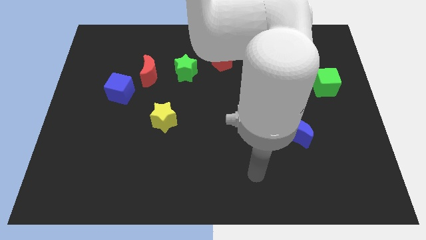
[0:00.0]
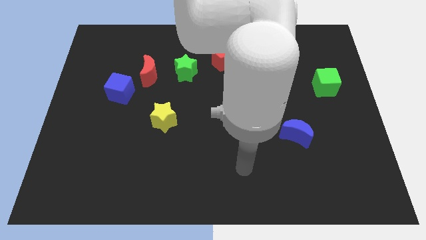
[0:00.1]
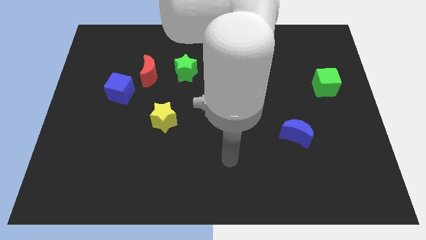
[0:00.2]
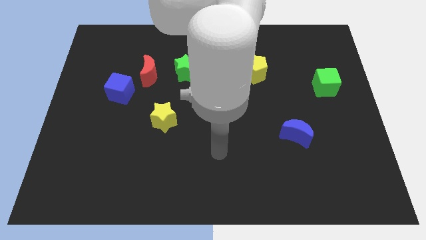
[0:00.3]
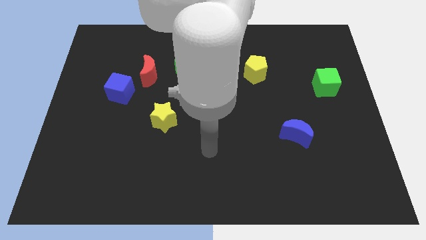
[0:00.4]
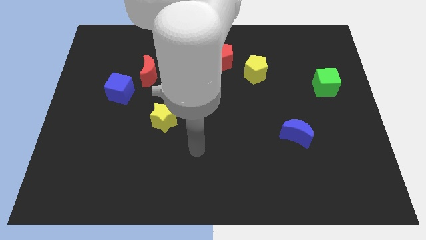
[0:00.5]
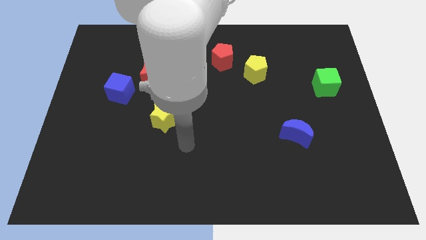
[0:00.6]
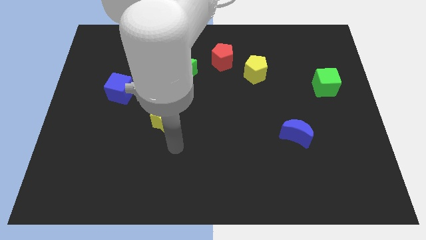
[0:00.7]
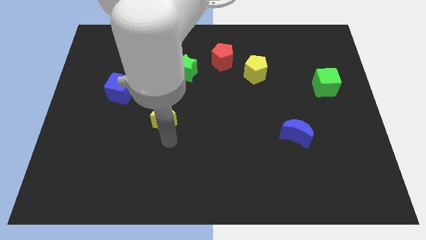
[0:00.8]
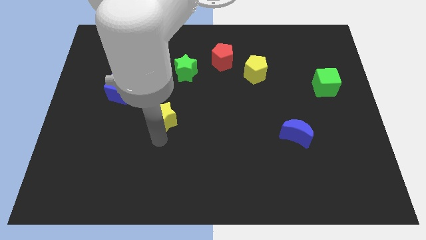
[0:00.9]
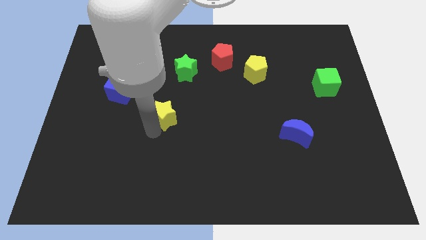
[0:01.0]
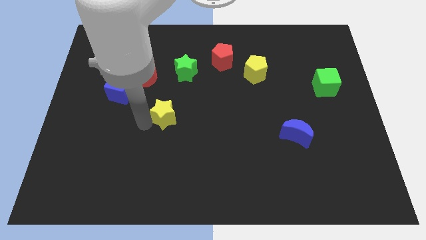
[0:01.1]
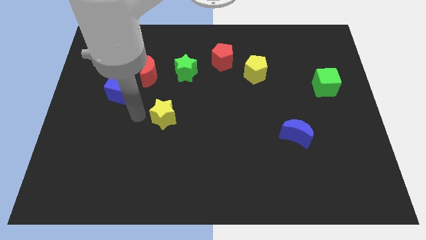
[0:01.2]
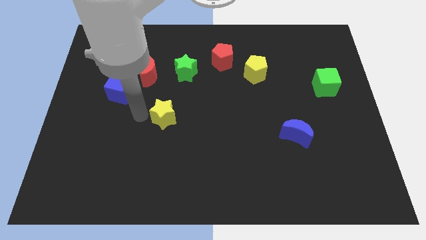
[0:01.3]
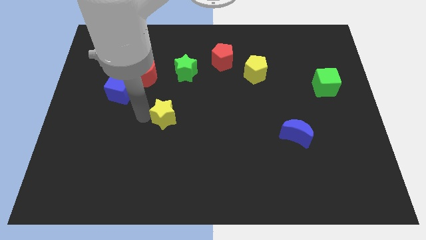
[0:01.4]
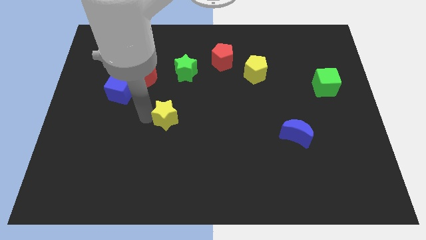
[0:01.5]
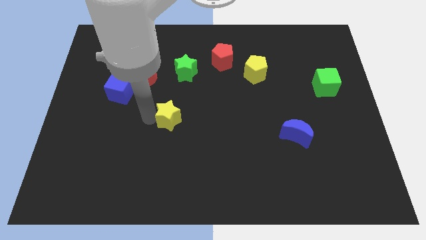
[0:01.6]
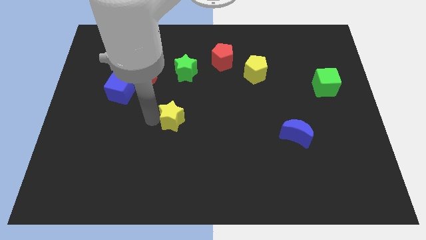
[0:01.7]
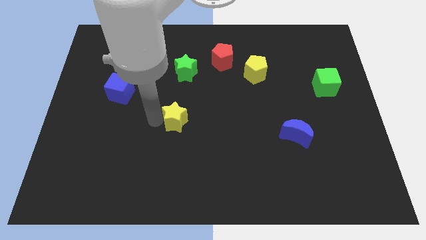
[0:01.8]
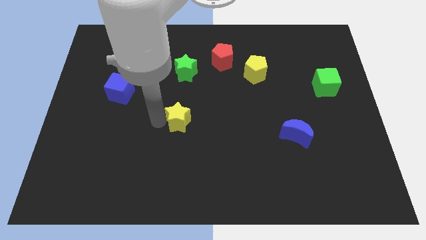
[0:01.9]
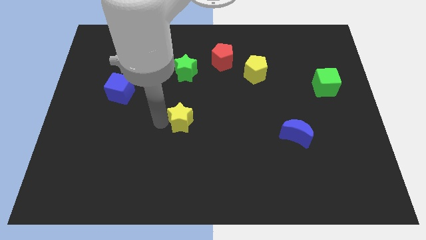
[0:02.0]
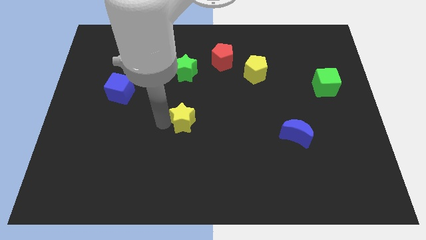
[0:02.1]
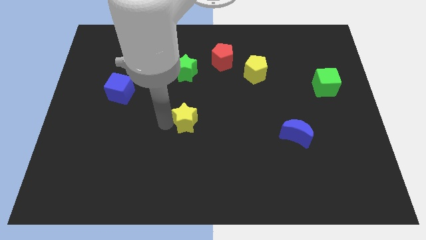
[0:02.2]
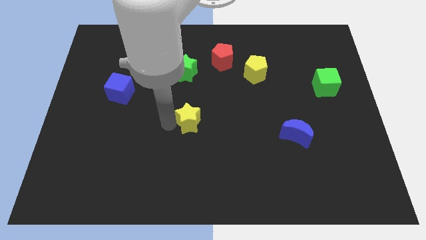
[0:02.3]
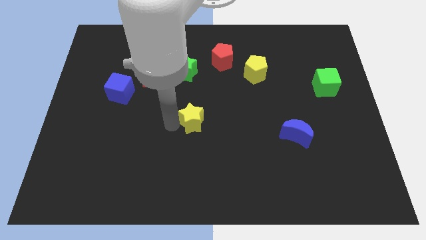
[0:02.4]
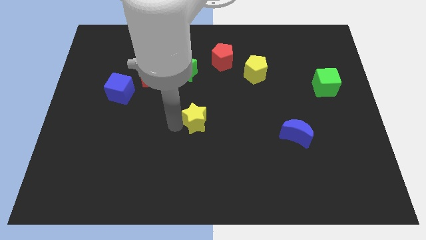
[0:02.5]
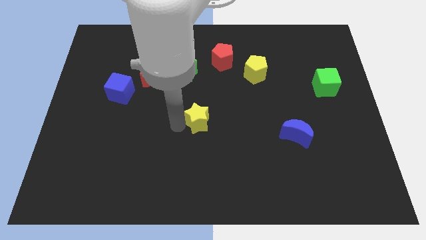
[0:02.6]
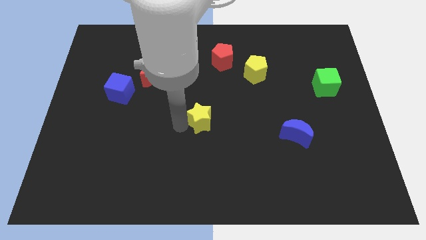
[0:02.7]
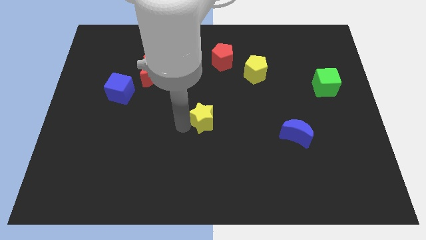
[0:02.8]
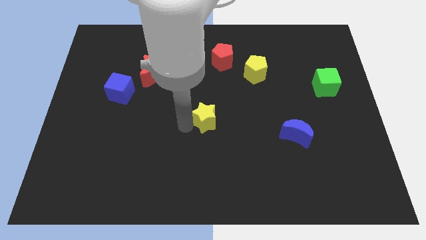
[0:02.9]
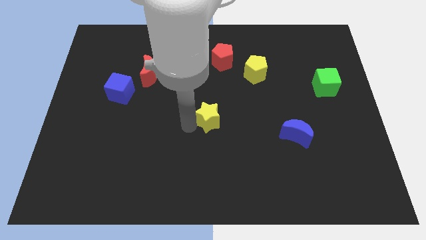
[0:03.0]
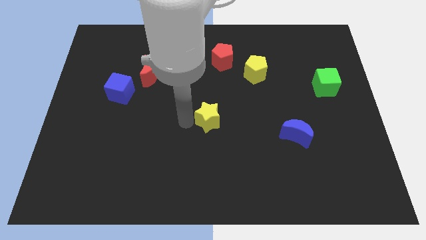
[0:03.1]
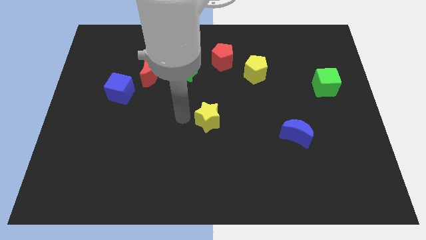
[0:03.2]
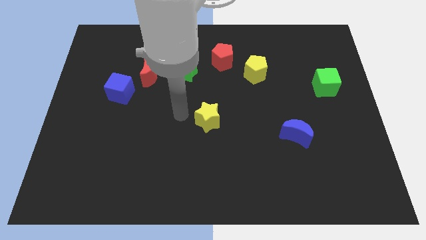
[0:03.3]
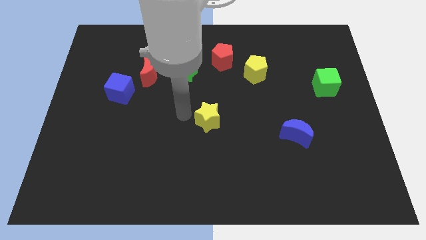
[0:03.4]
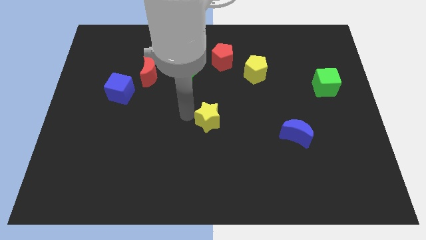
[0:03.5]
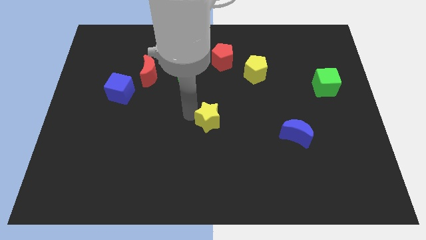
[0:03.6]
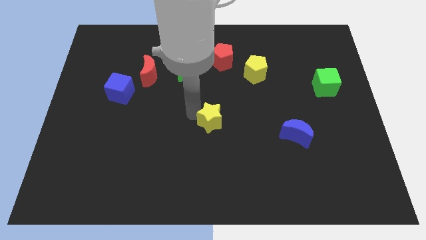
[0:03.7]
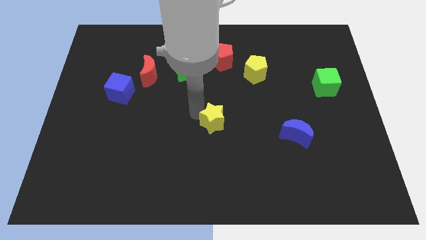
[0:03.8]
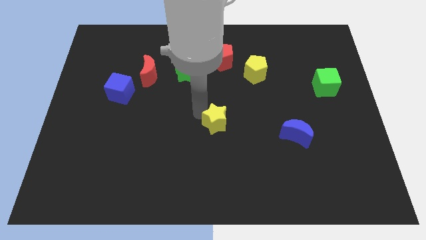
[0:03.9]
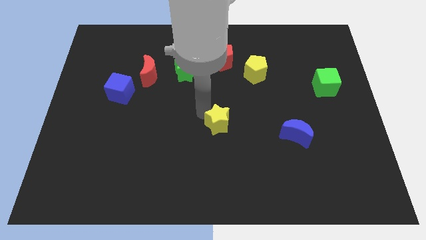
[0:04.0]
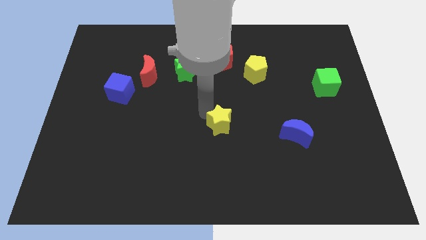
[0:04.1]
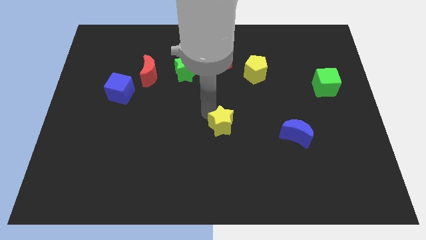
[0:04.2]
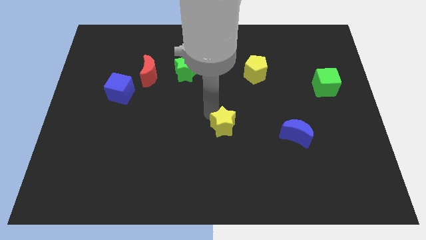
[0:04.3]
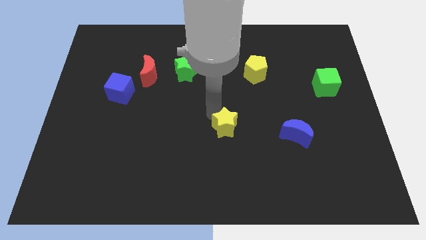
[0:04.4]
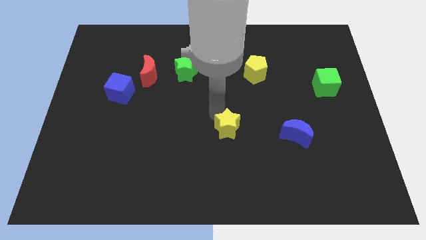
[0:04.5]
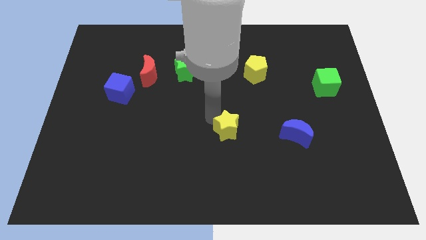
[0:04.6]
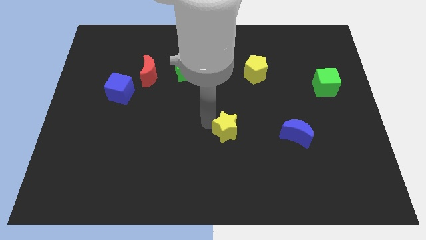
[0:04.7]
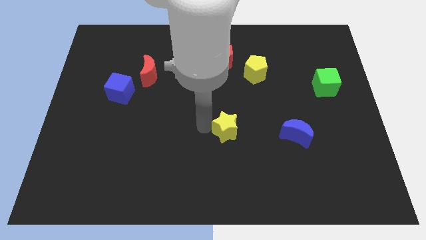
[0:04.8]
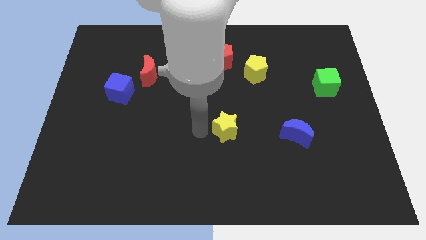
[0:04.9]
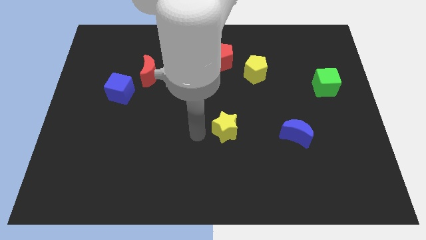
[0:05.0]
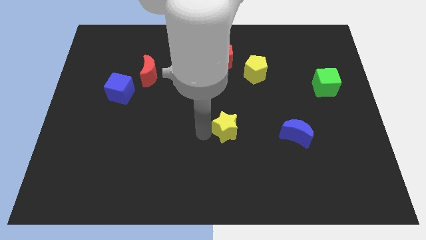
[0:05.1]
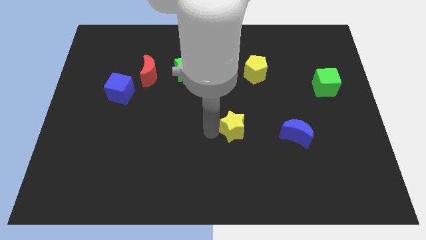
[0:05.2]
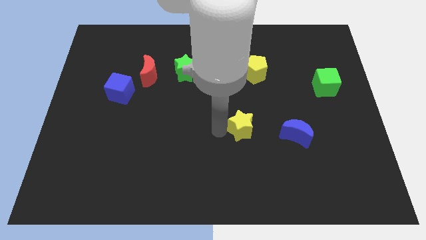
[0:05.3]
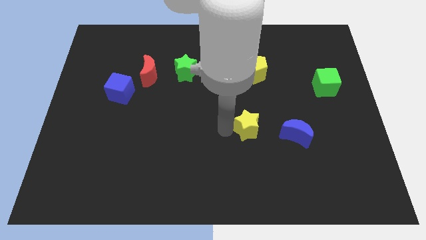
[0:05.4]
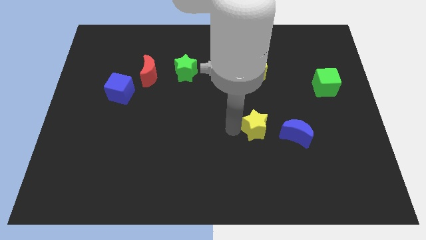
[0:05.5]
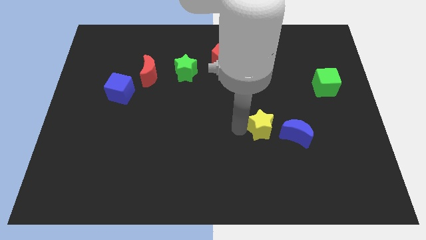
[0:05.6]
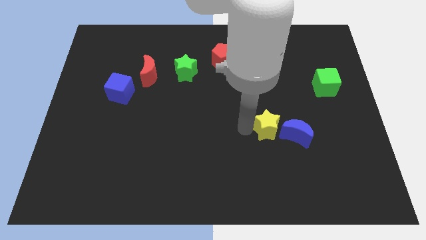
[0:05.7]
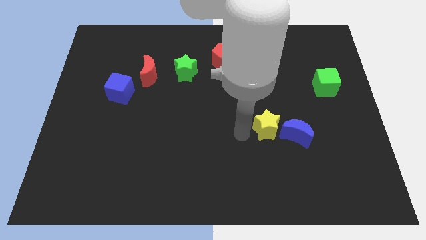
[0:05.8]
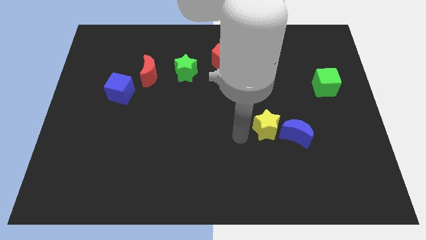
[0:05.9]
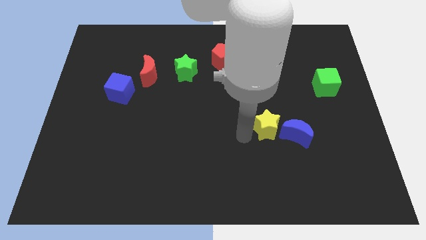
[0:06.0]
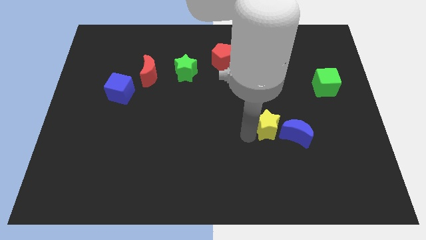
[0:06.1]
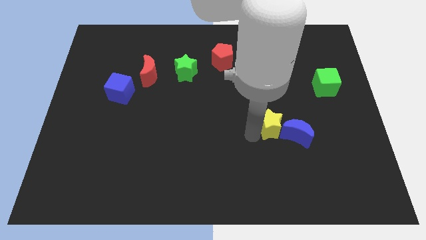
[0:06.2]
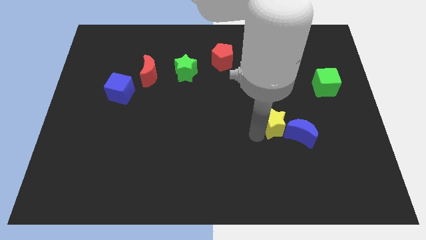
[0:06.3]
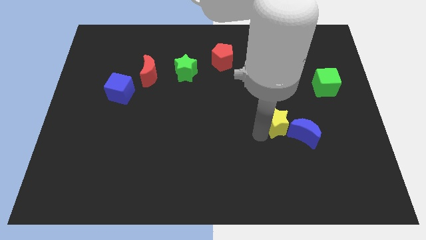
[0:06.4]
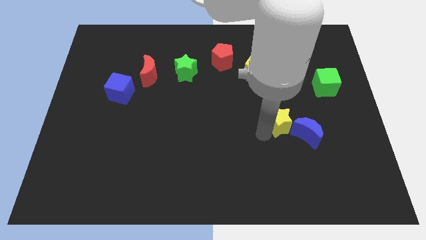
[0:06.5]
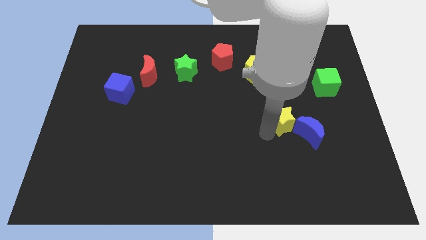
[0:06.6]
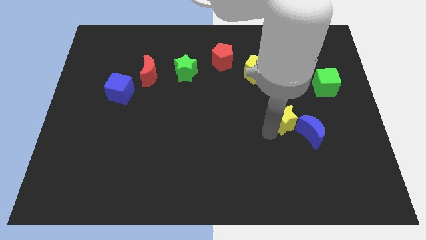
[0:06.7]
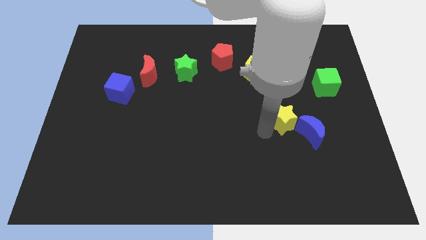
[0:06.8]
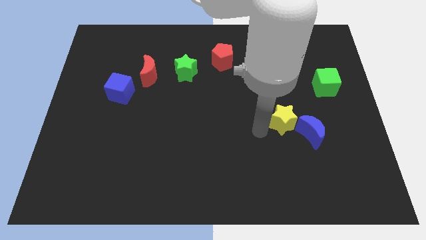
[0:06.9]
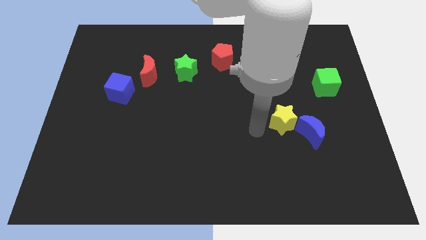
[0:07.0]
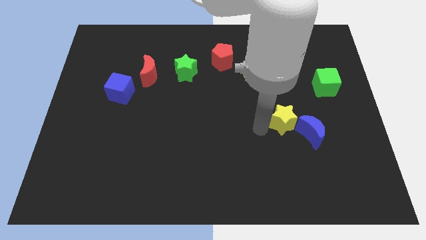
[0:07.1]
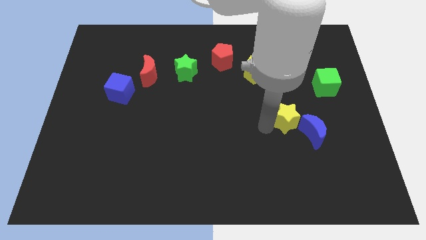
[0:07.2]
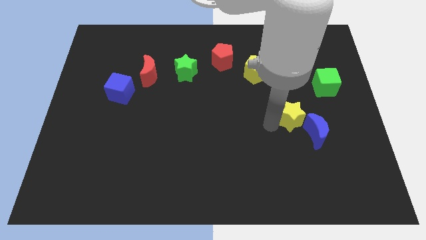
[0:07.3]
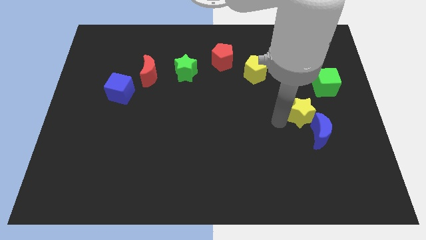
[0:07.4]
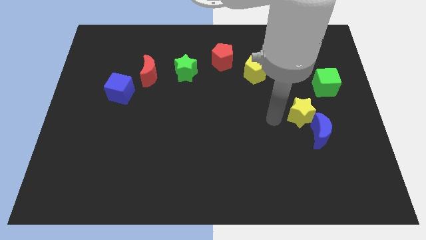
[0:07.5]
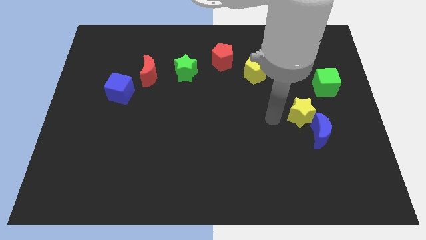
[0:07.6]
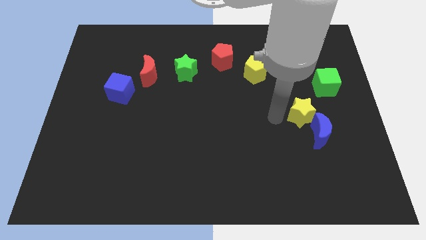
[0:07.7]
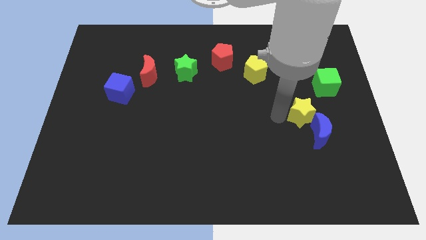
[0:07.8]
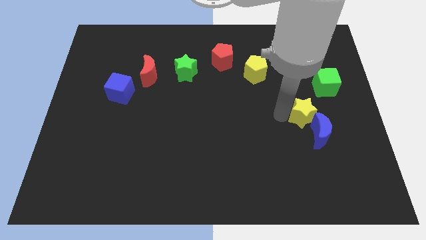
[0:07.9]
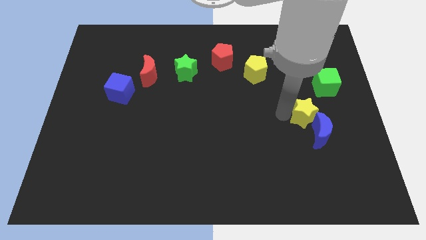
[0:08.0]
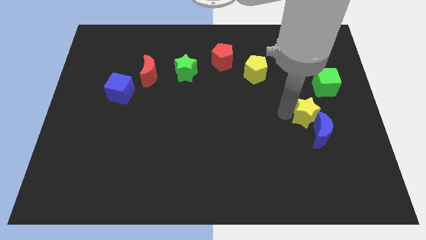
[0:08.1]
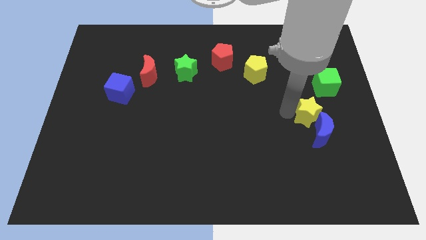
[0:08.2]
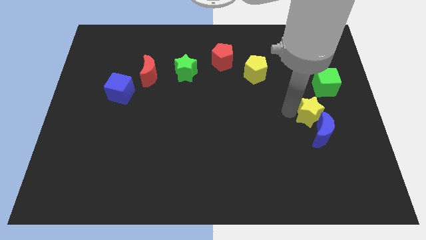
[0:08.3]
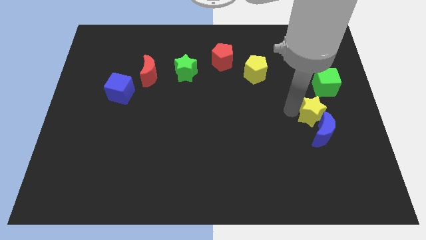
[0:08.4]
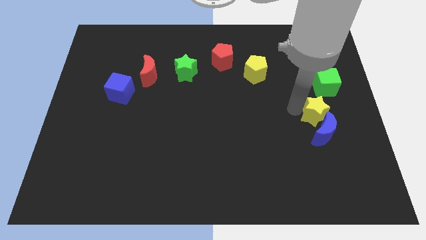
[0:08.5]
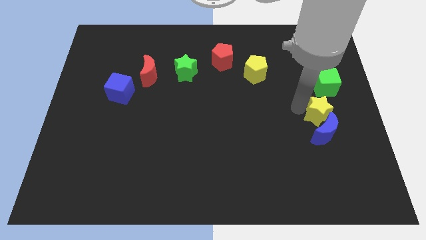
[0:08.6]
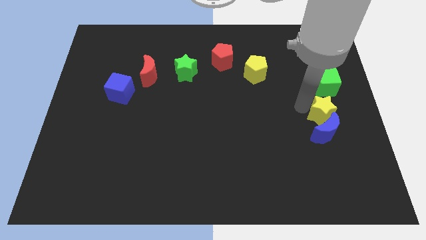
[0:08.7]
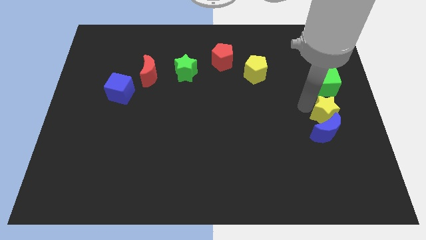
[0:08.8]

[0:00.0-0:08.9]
slide the yellow star to the right side
